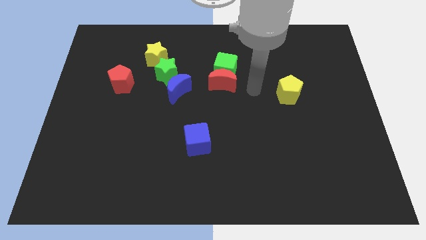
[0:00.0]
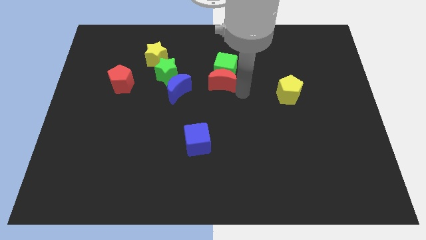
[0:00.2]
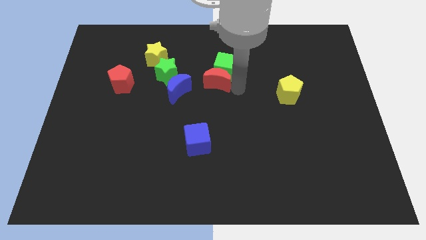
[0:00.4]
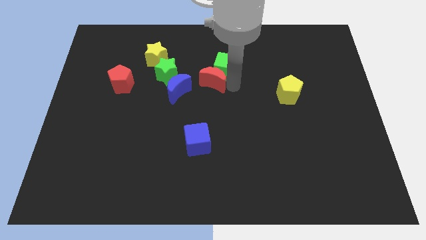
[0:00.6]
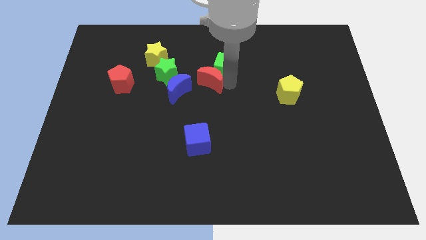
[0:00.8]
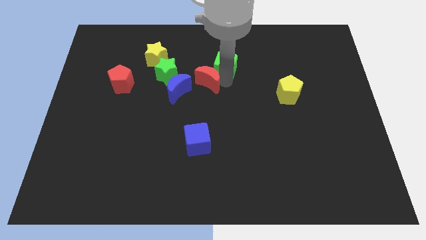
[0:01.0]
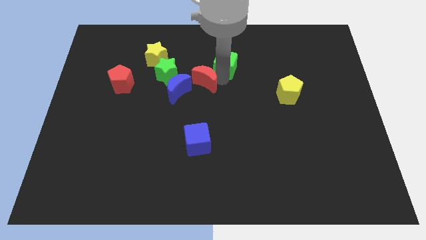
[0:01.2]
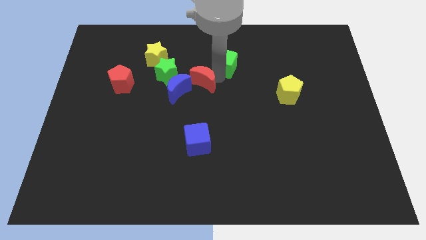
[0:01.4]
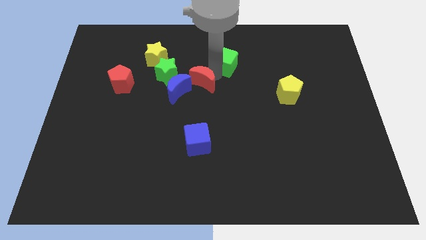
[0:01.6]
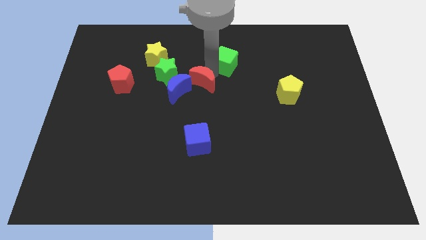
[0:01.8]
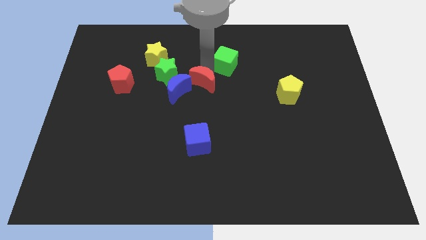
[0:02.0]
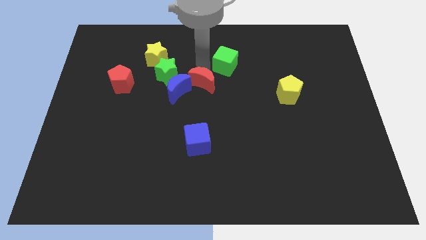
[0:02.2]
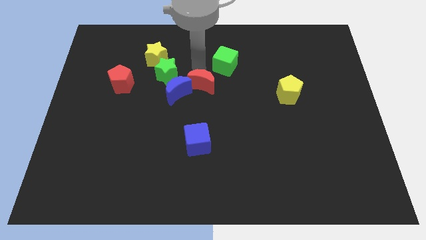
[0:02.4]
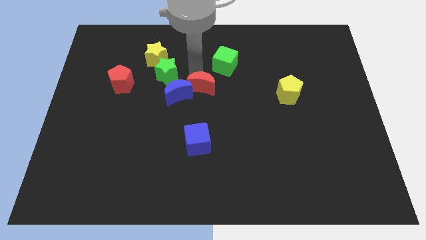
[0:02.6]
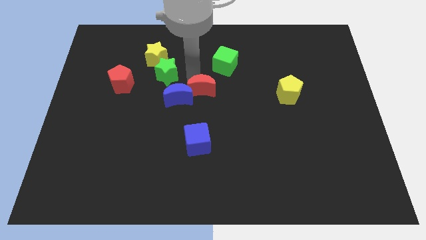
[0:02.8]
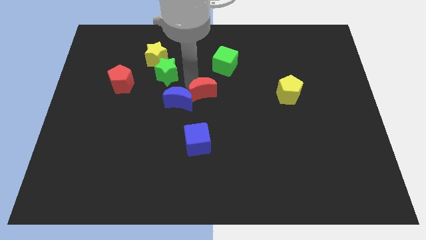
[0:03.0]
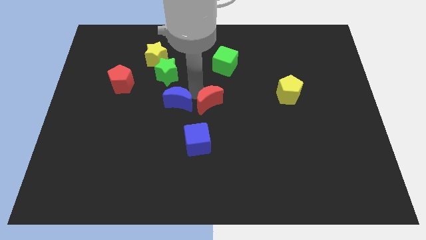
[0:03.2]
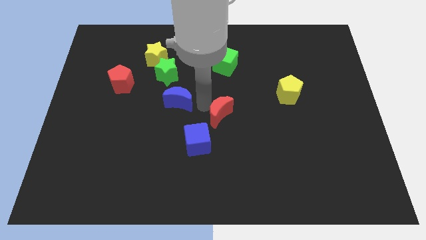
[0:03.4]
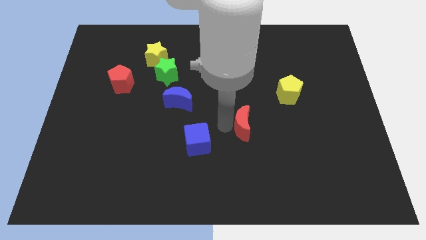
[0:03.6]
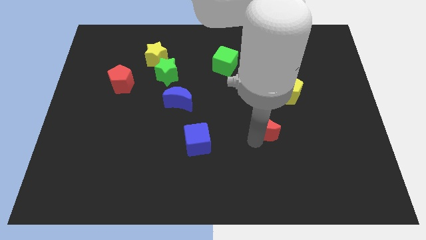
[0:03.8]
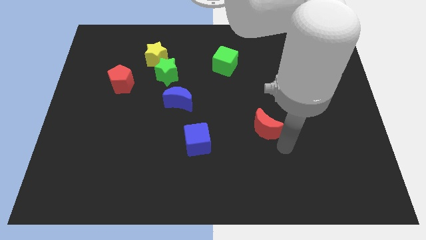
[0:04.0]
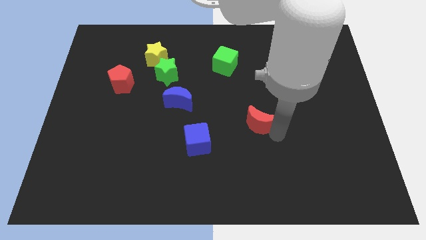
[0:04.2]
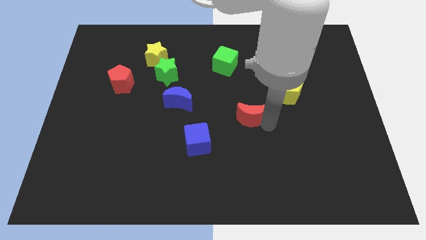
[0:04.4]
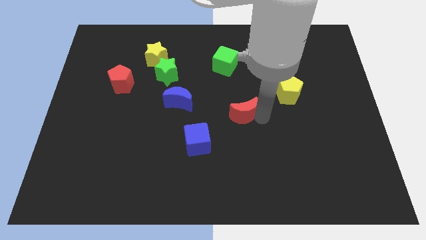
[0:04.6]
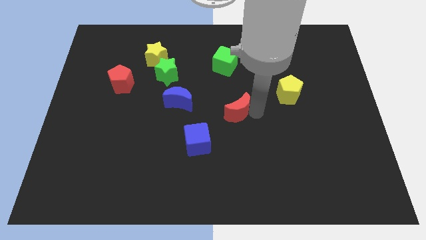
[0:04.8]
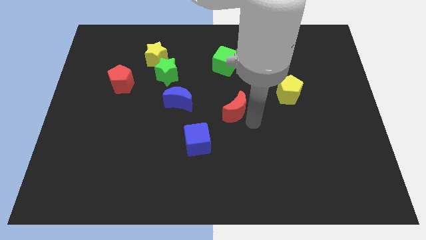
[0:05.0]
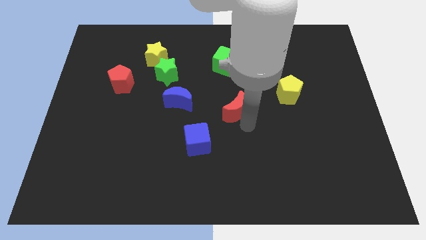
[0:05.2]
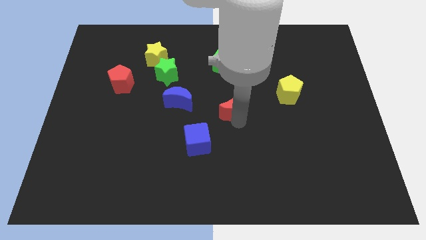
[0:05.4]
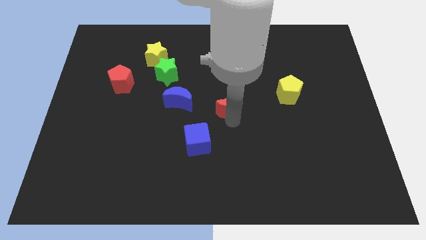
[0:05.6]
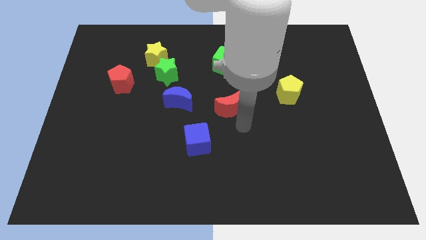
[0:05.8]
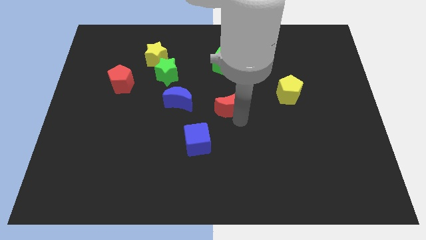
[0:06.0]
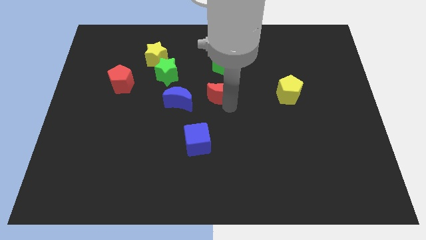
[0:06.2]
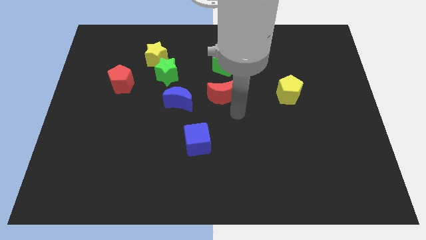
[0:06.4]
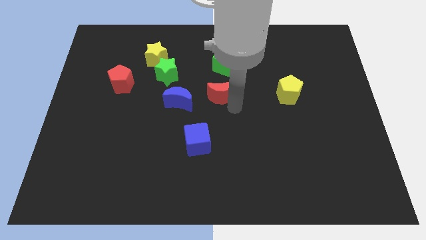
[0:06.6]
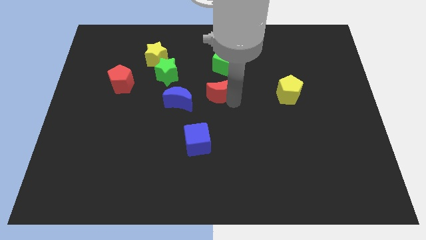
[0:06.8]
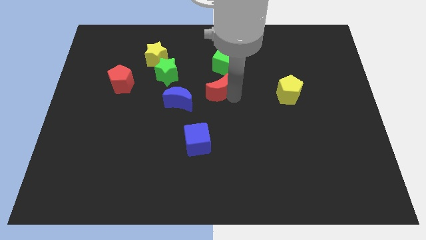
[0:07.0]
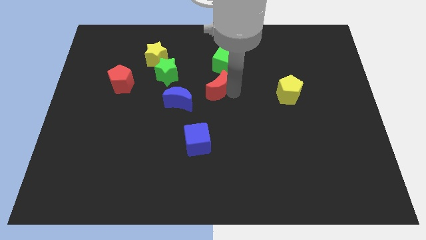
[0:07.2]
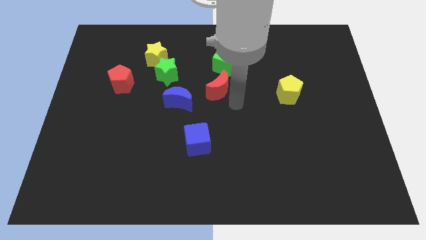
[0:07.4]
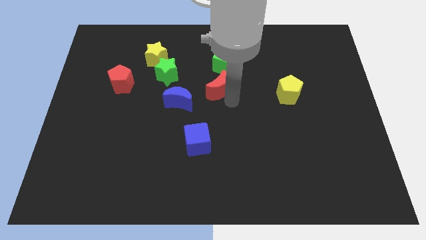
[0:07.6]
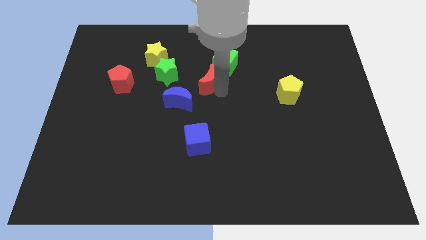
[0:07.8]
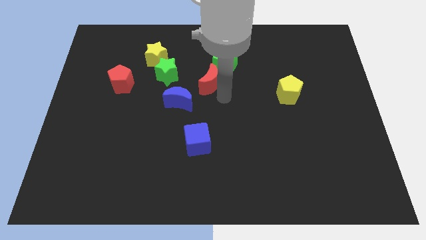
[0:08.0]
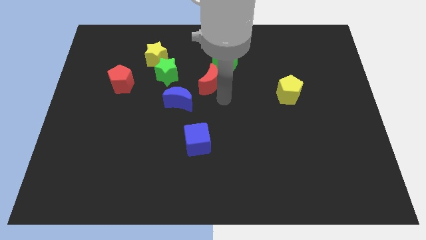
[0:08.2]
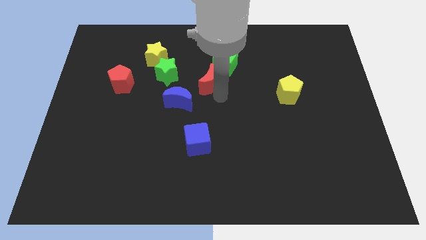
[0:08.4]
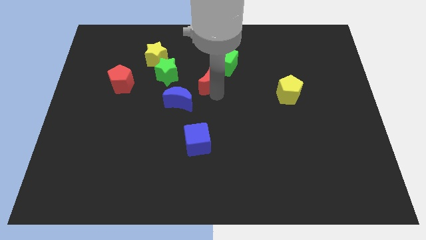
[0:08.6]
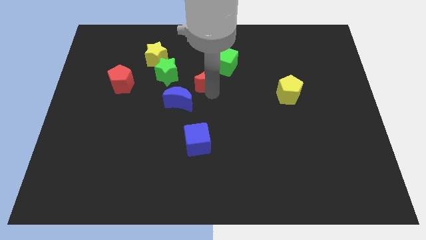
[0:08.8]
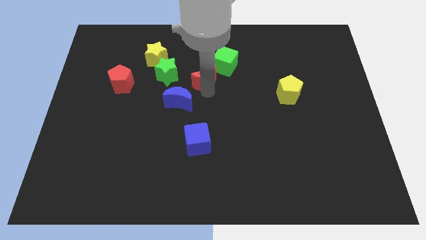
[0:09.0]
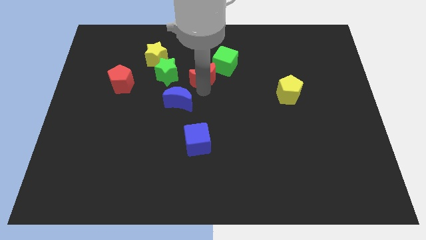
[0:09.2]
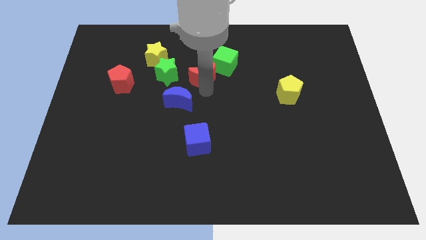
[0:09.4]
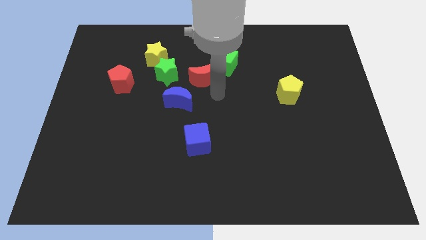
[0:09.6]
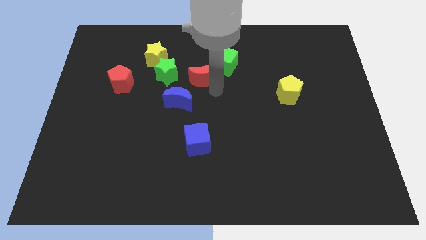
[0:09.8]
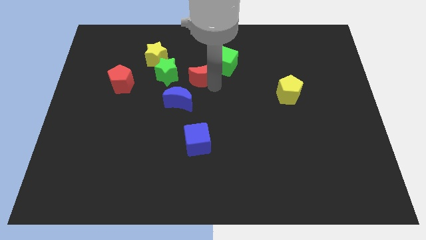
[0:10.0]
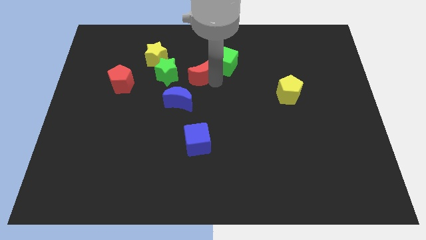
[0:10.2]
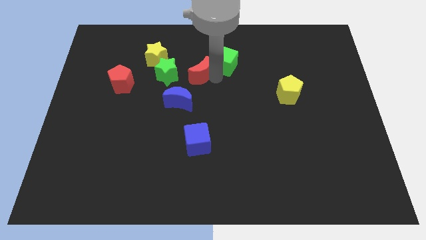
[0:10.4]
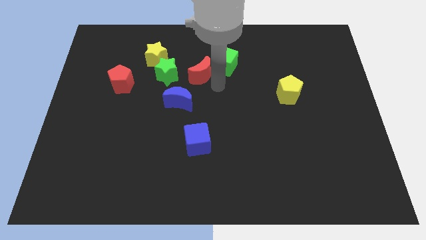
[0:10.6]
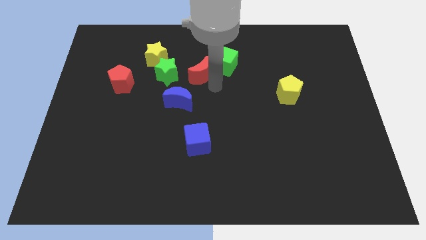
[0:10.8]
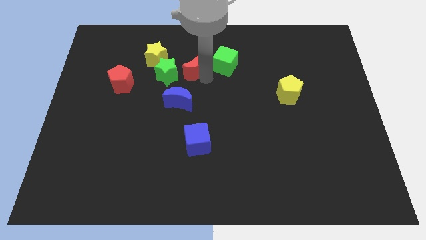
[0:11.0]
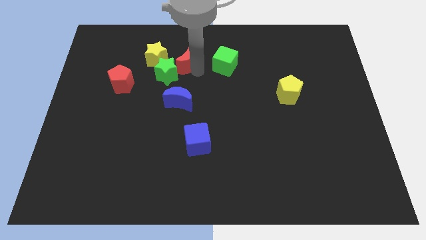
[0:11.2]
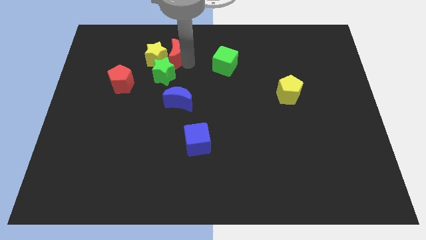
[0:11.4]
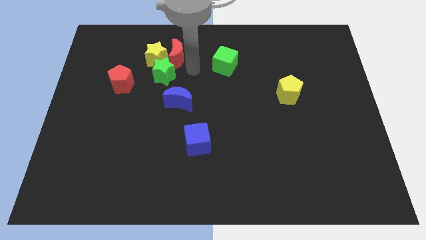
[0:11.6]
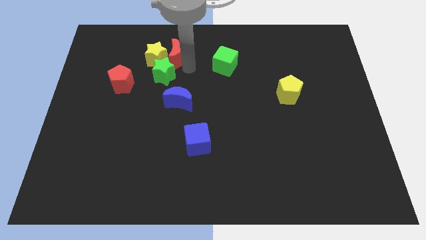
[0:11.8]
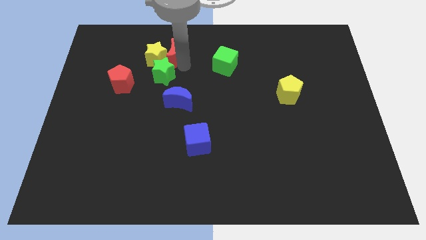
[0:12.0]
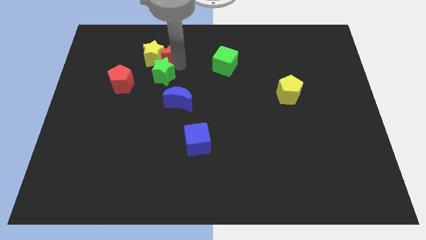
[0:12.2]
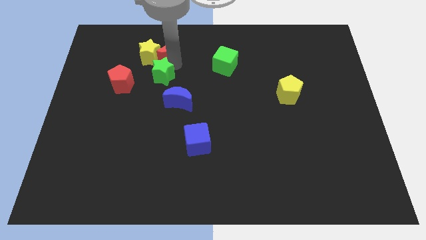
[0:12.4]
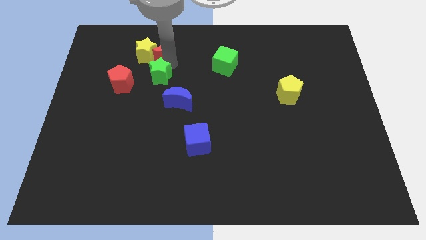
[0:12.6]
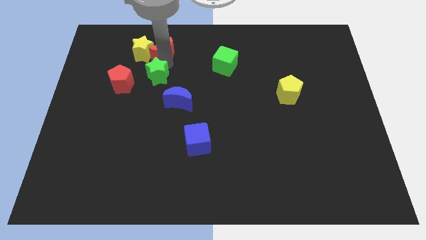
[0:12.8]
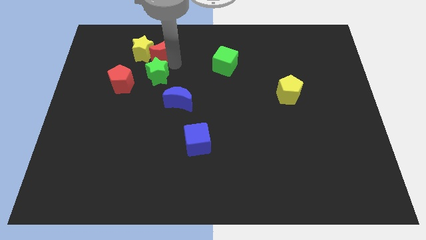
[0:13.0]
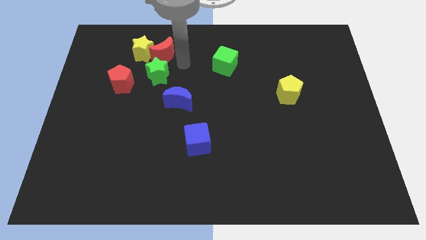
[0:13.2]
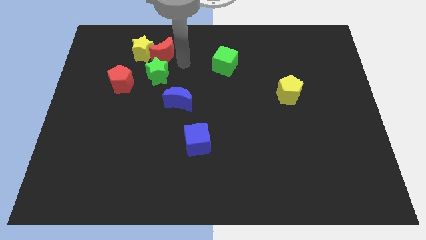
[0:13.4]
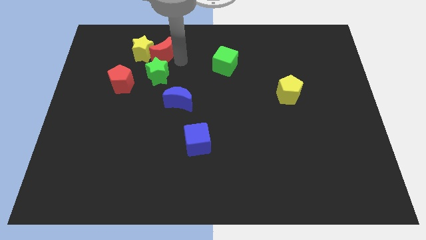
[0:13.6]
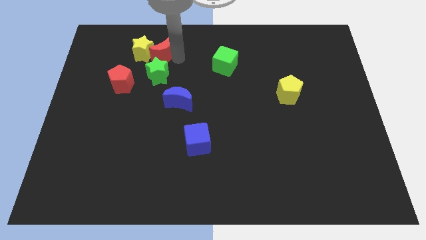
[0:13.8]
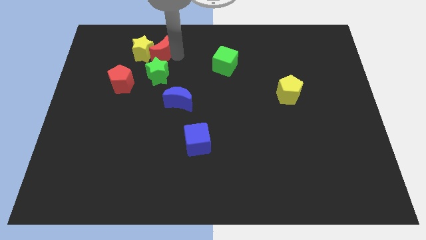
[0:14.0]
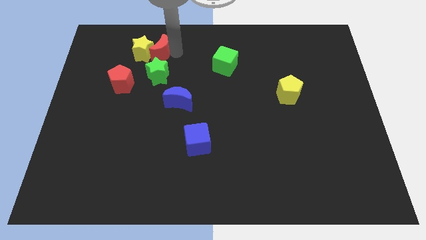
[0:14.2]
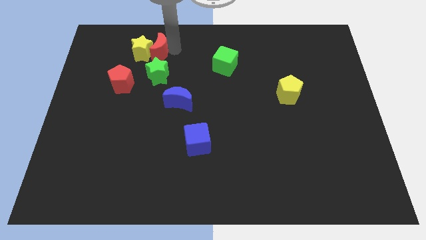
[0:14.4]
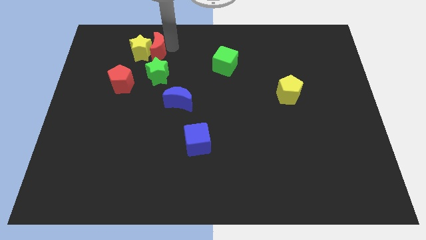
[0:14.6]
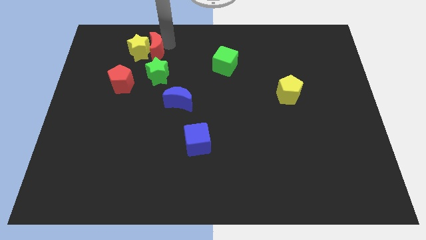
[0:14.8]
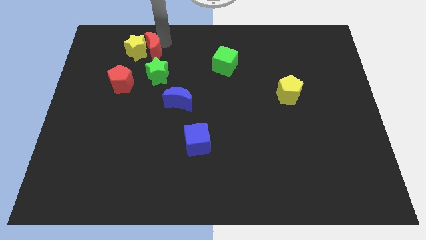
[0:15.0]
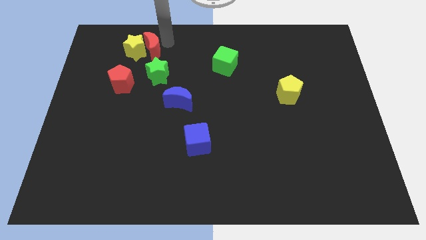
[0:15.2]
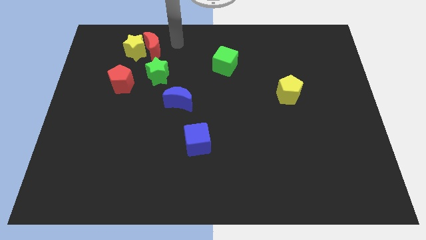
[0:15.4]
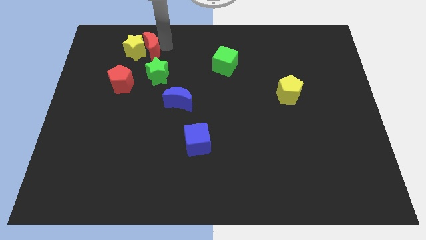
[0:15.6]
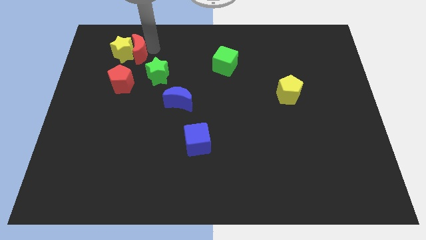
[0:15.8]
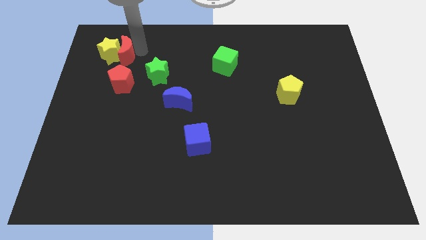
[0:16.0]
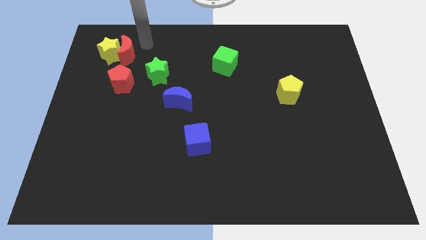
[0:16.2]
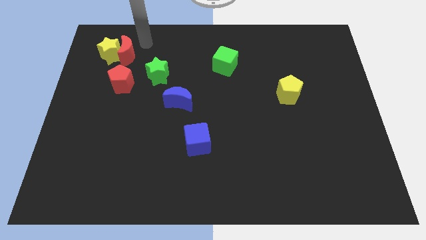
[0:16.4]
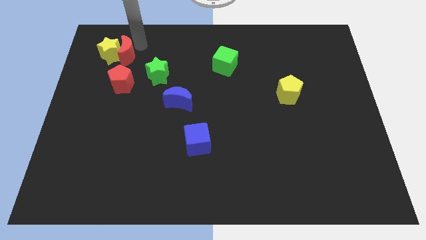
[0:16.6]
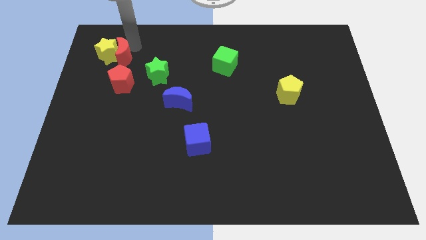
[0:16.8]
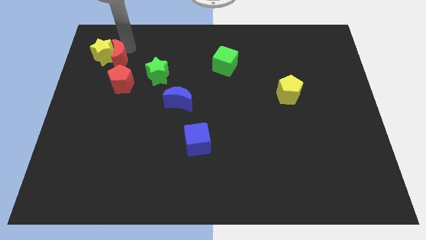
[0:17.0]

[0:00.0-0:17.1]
put the red moon to the top left of the red pentagon
